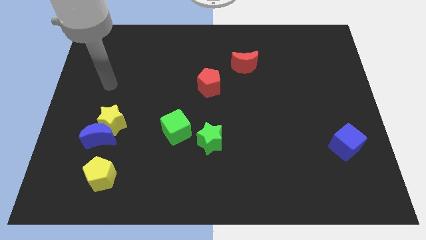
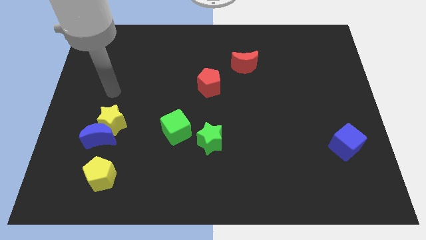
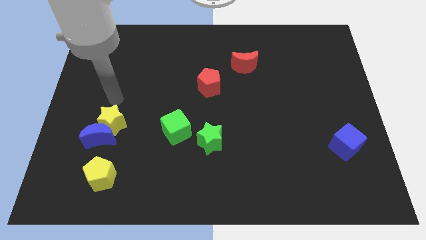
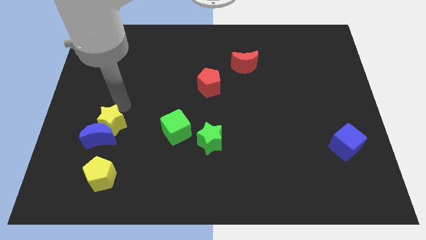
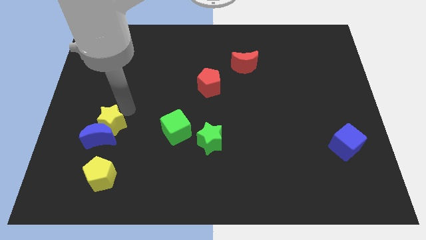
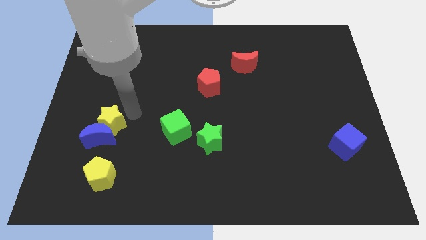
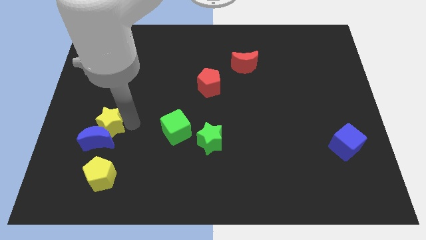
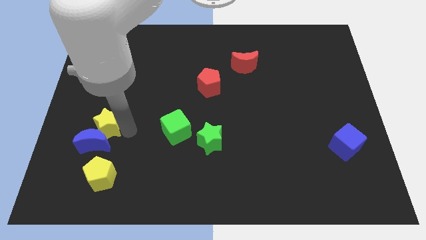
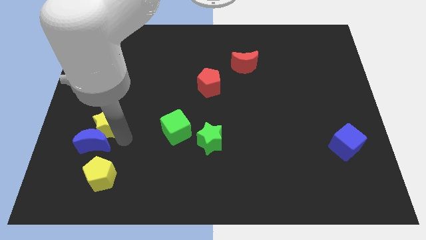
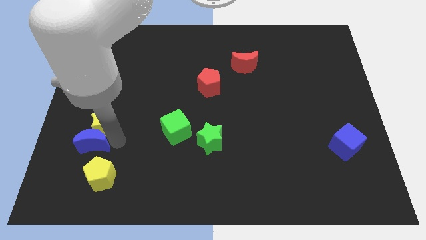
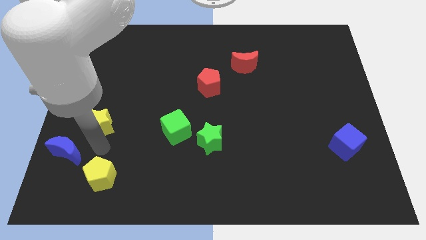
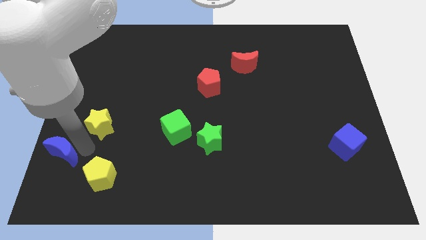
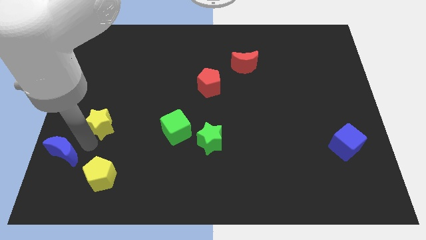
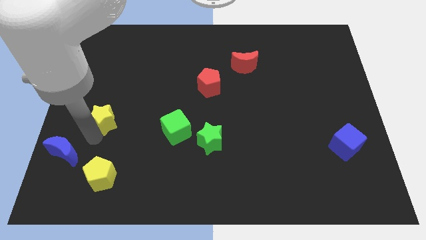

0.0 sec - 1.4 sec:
pull the yellow star apart from the blue moon

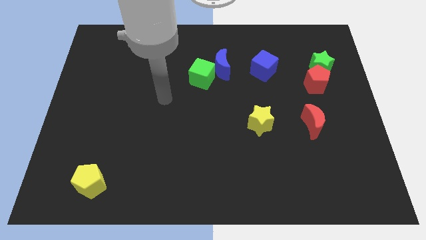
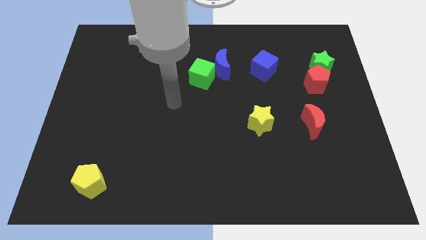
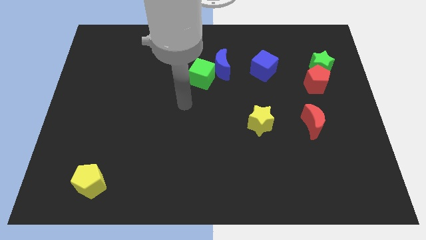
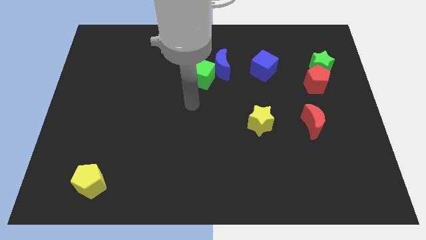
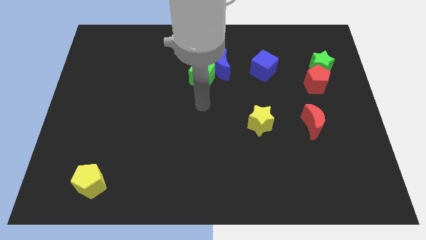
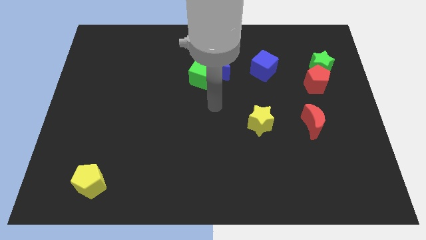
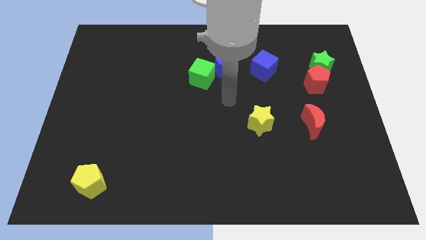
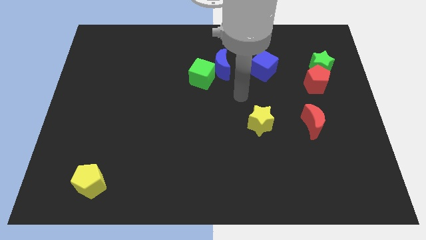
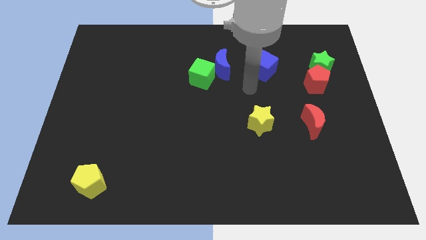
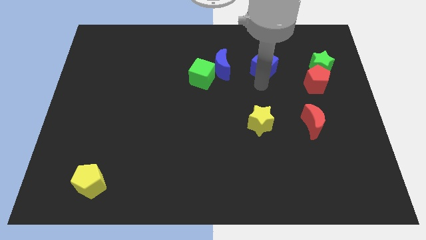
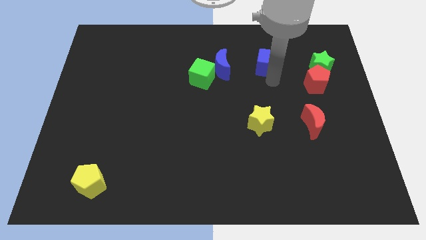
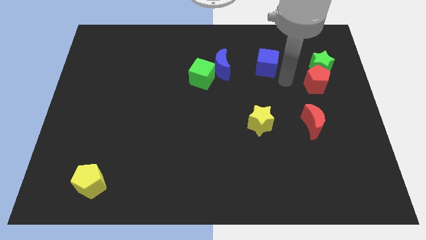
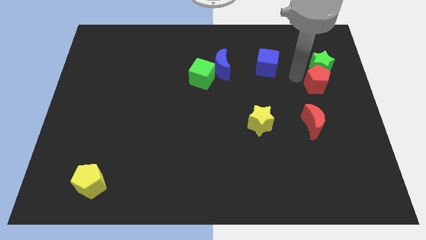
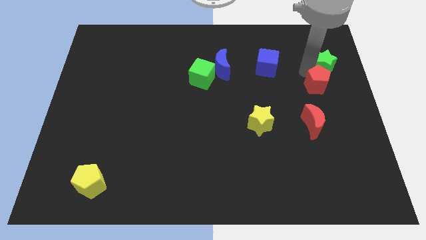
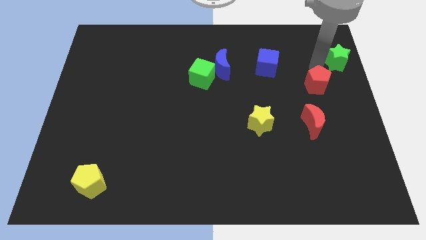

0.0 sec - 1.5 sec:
separate the red pentagon from the green star

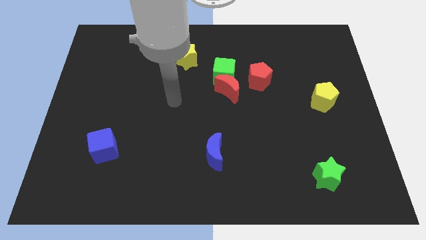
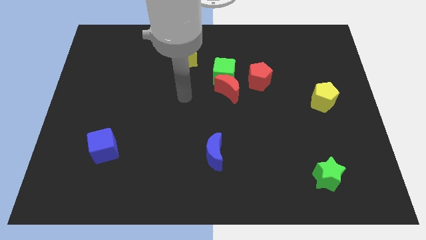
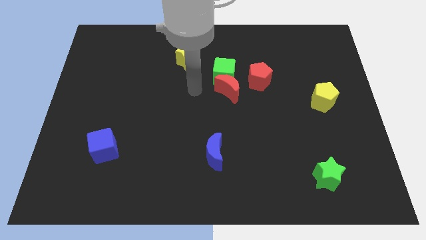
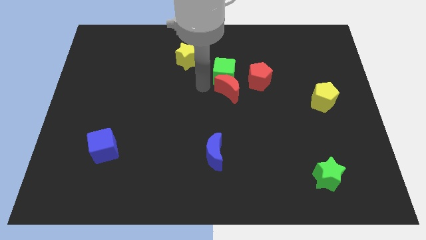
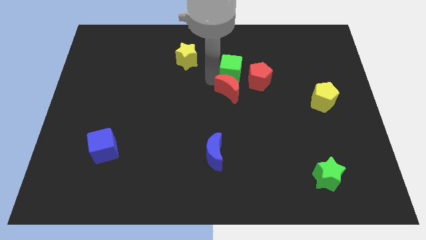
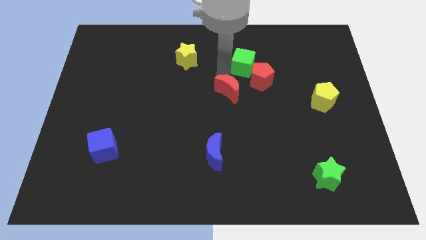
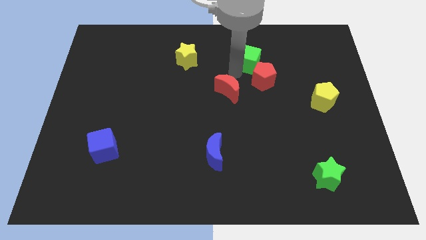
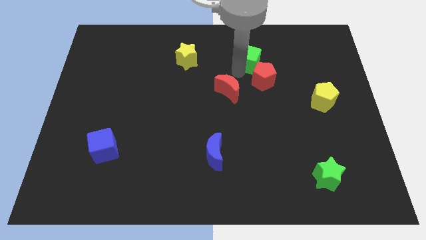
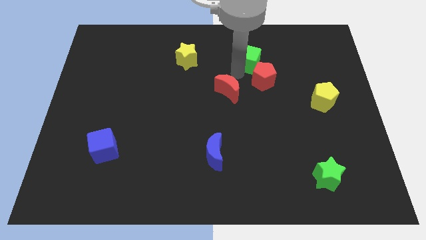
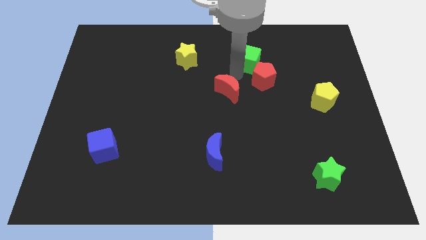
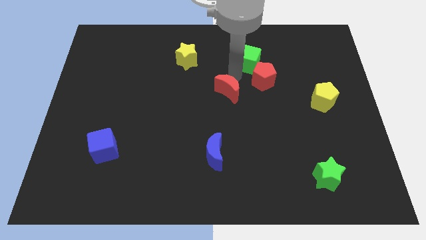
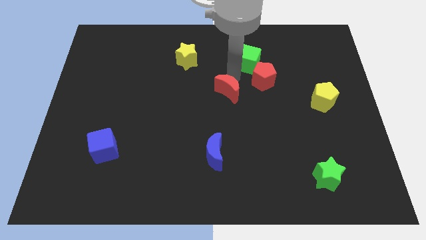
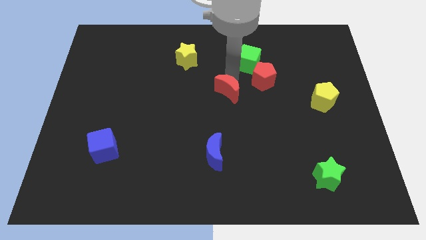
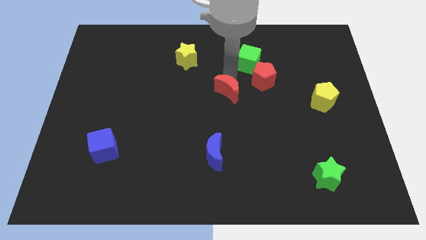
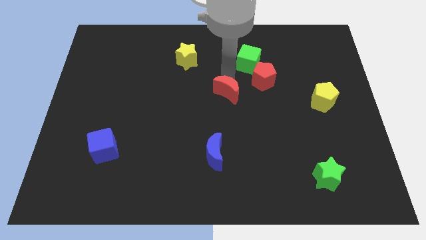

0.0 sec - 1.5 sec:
separate the red moon from the green cube and red pentagon

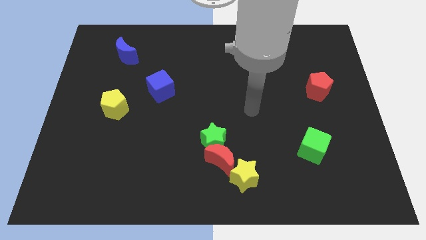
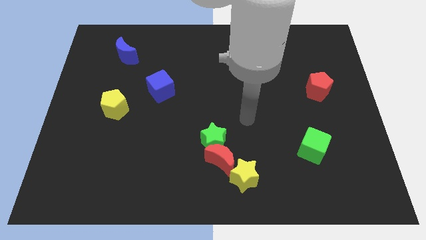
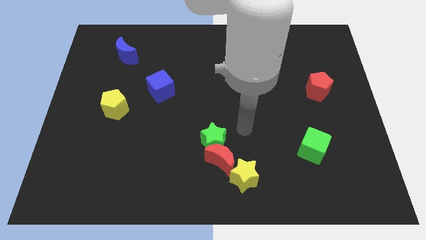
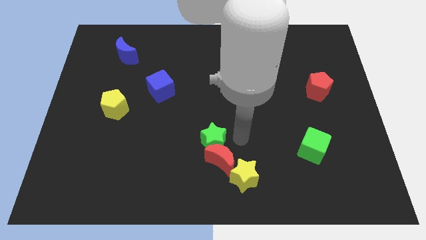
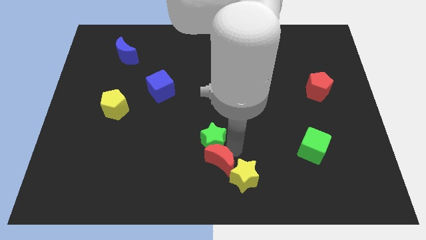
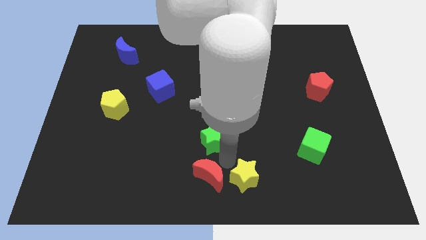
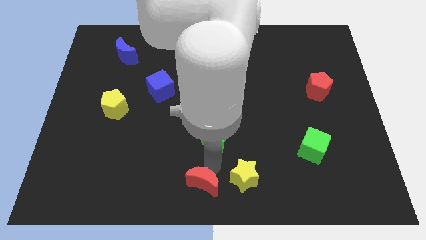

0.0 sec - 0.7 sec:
move the green star away from the red moon

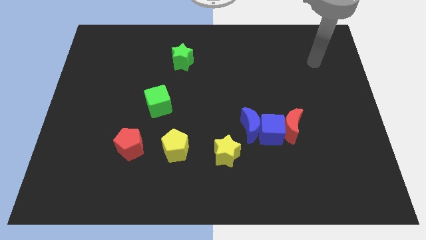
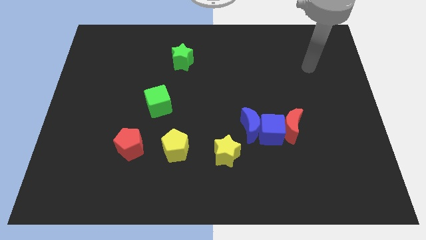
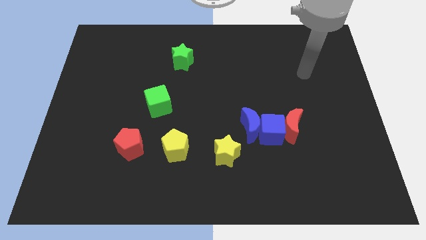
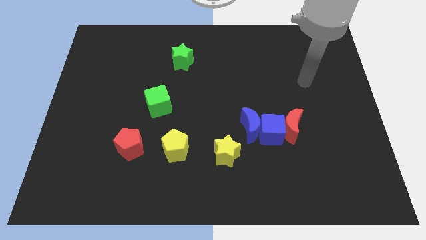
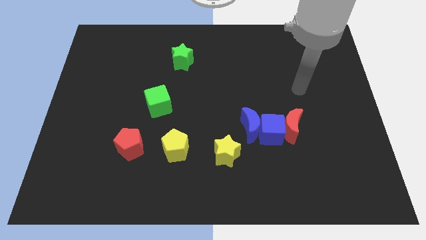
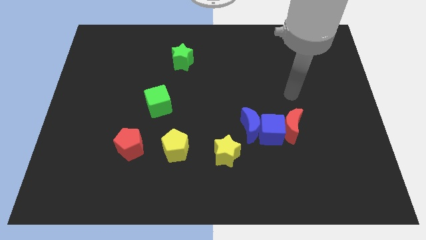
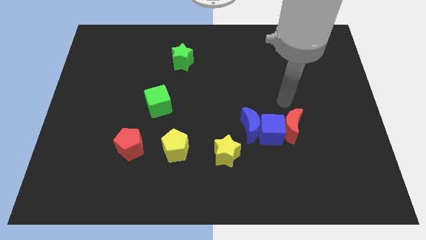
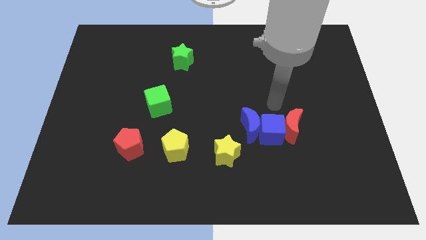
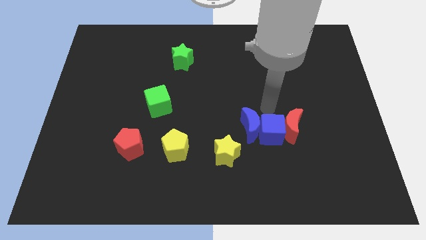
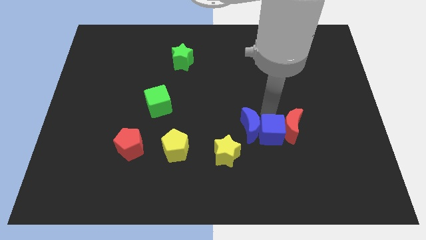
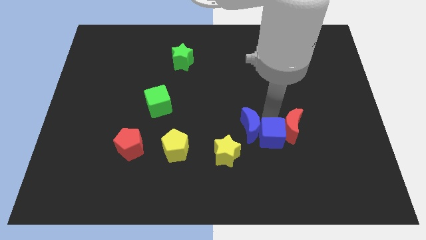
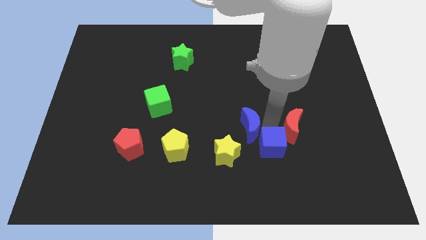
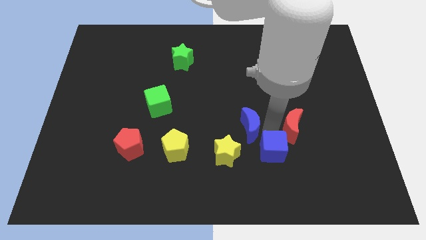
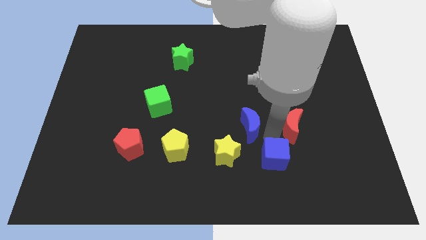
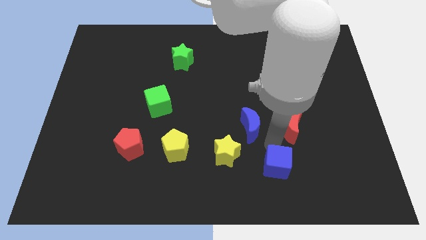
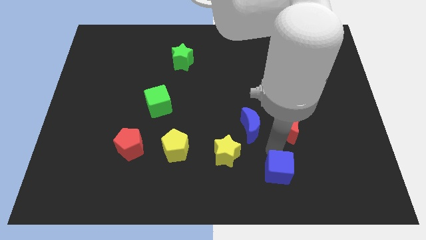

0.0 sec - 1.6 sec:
pull the blue cube apart from the blue moon and red moon

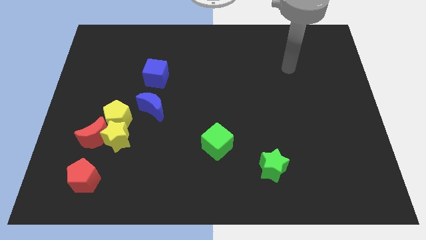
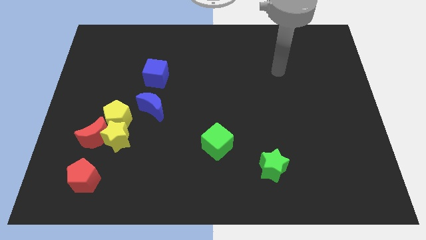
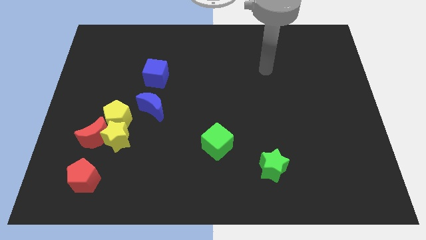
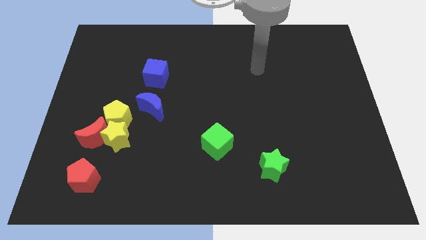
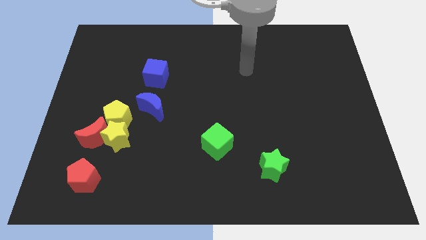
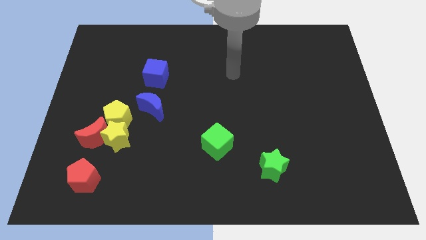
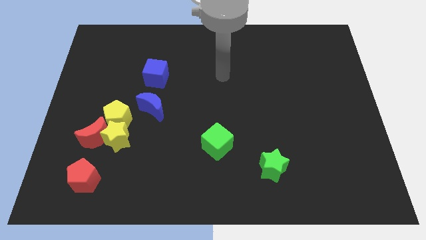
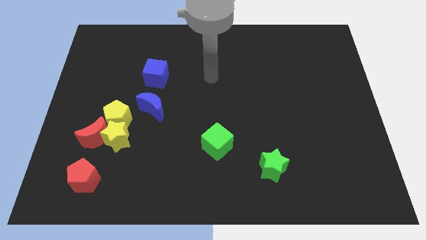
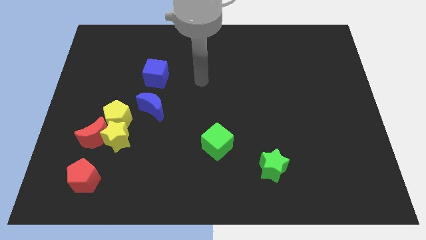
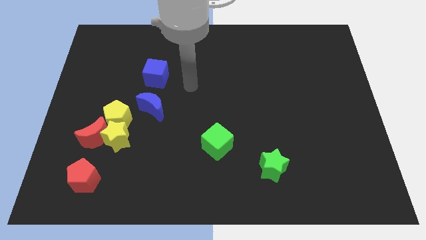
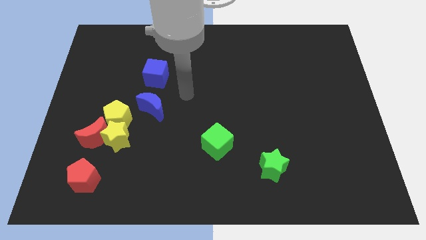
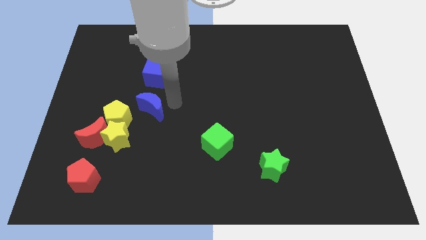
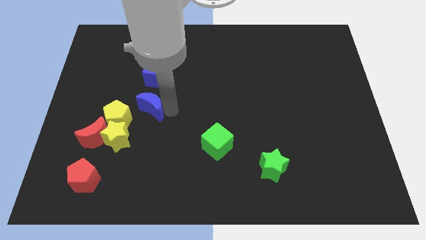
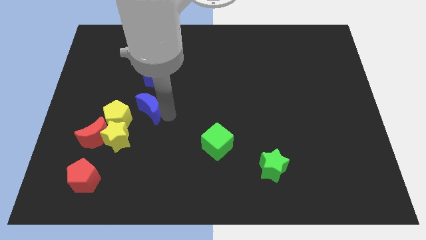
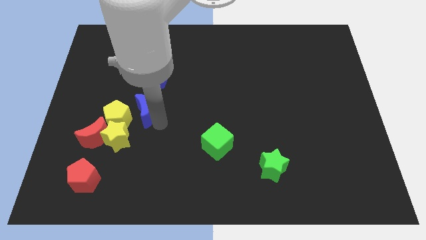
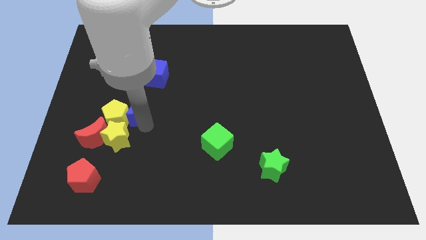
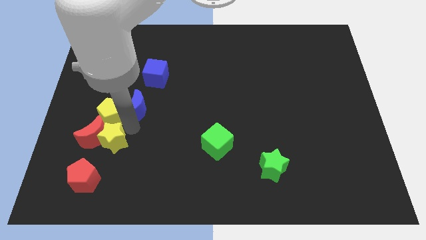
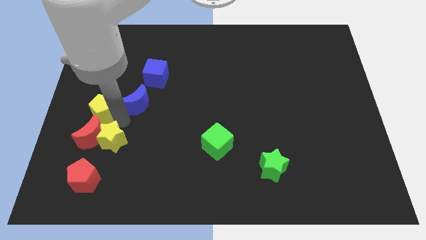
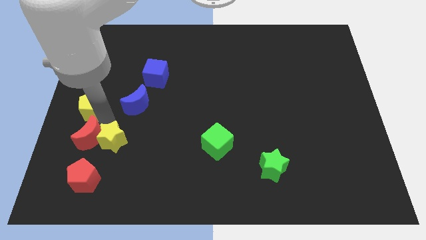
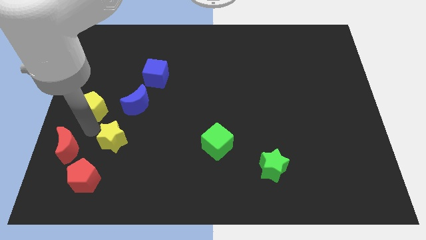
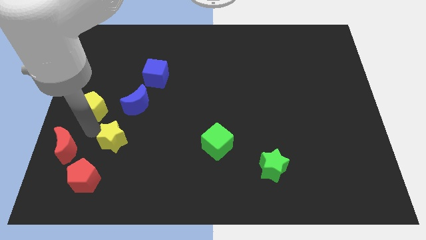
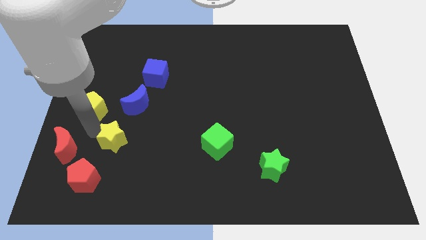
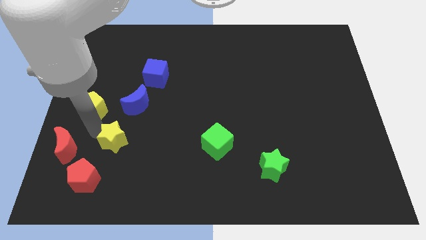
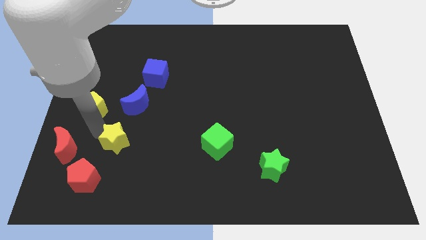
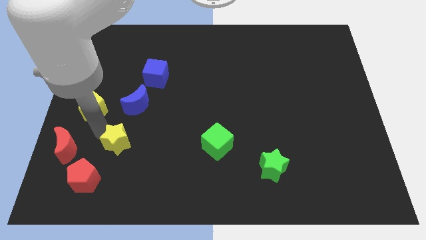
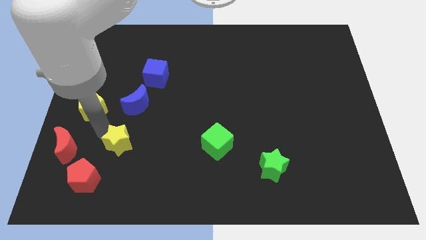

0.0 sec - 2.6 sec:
separate the yellow star from the red moon and yellow pentagon
